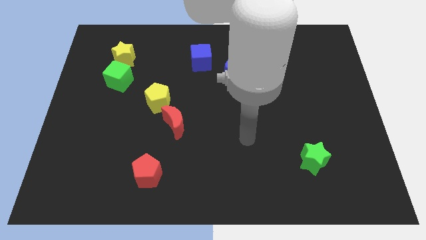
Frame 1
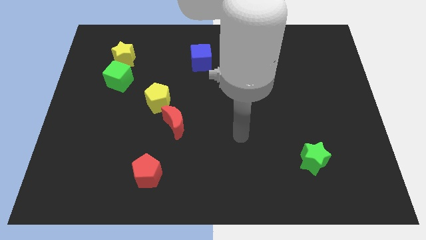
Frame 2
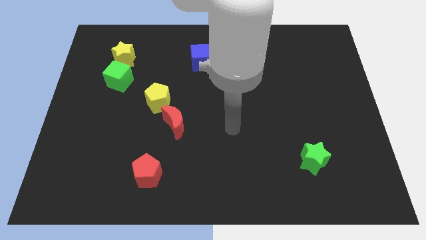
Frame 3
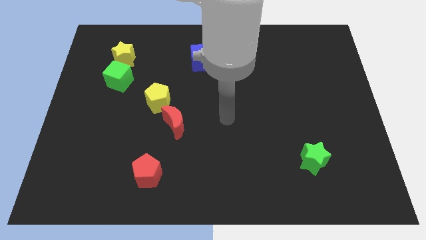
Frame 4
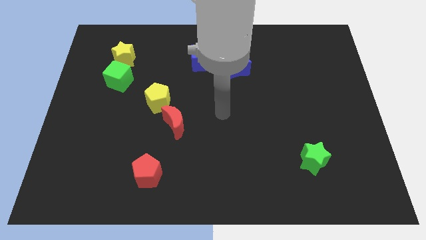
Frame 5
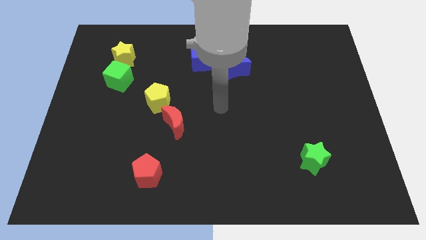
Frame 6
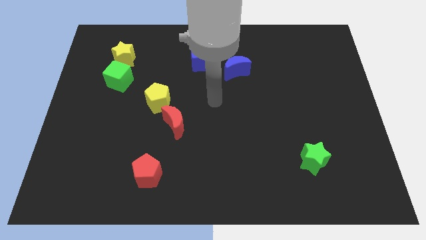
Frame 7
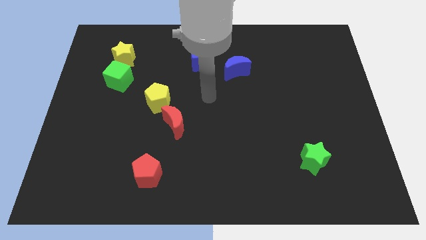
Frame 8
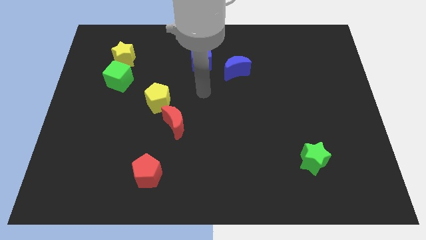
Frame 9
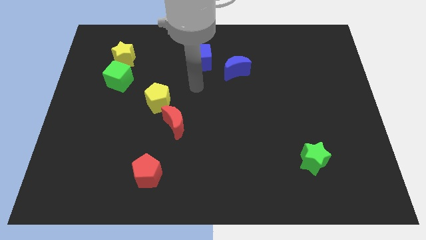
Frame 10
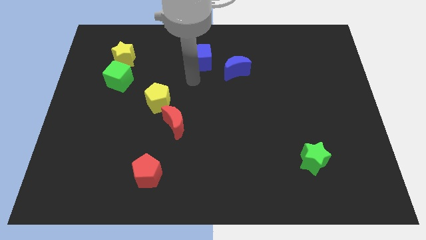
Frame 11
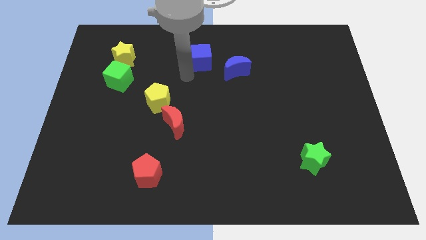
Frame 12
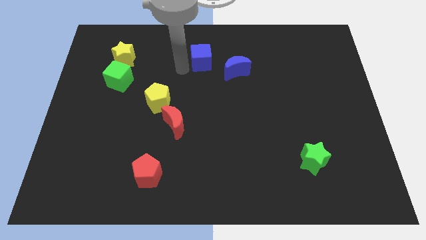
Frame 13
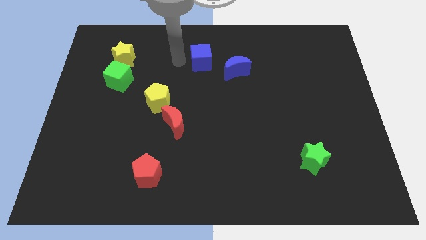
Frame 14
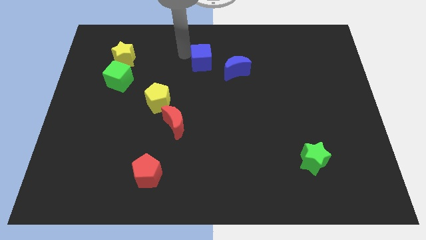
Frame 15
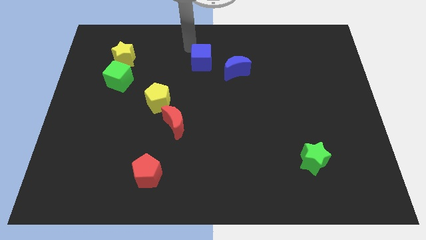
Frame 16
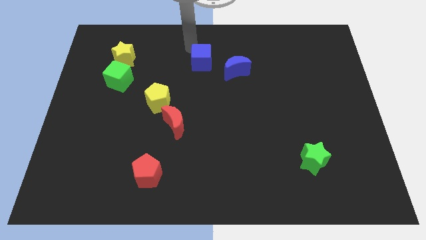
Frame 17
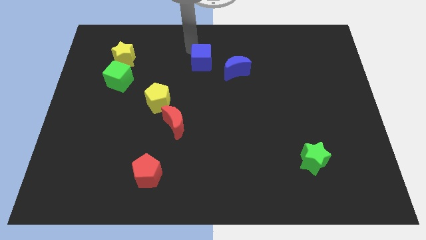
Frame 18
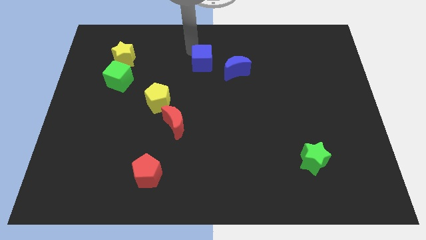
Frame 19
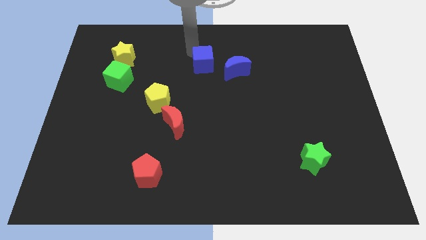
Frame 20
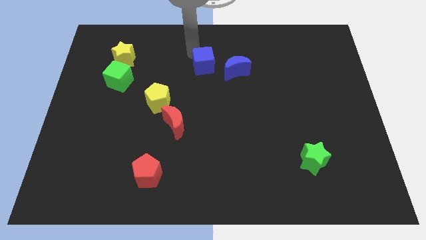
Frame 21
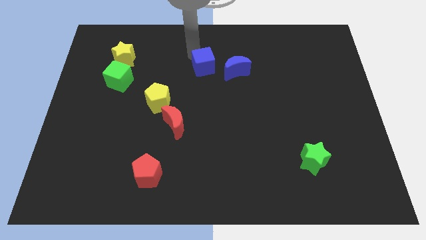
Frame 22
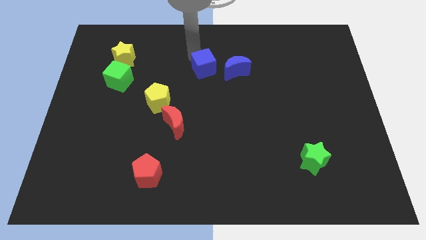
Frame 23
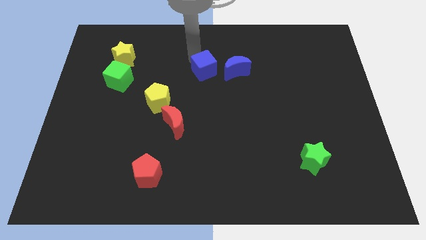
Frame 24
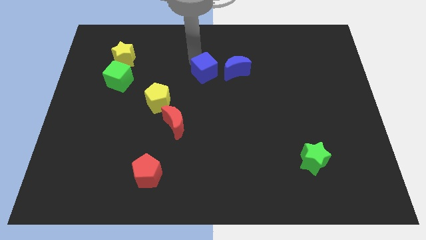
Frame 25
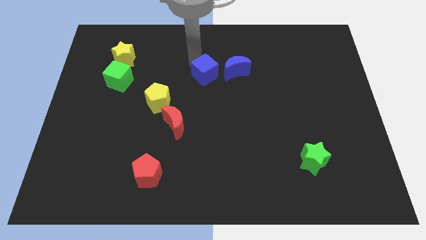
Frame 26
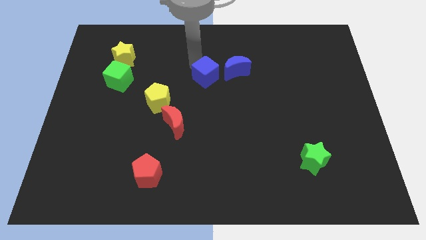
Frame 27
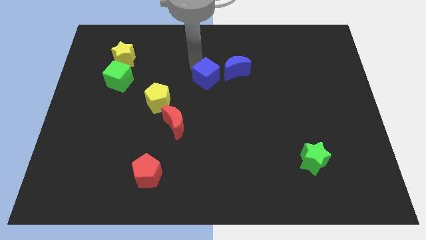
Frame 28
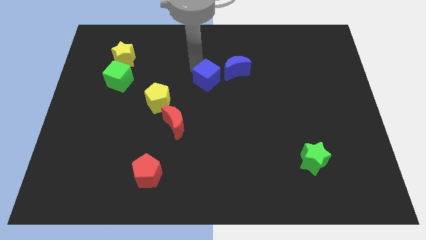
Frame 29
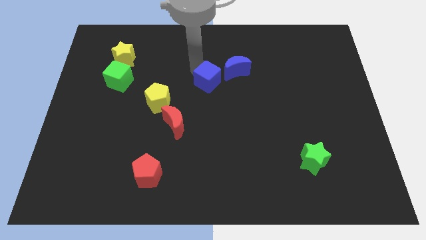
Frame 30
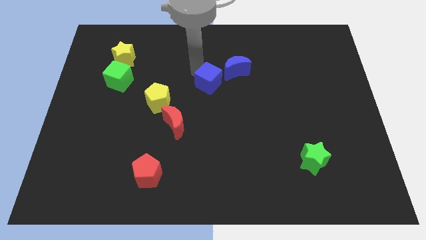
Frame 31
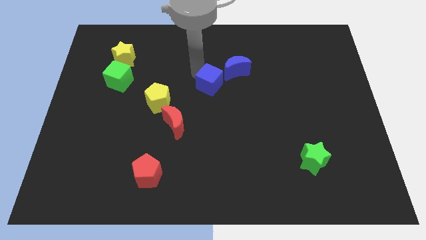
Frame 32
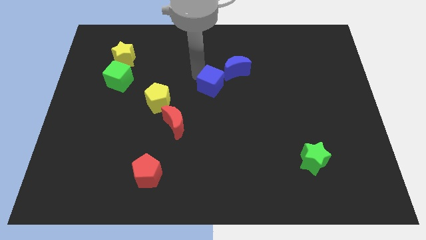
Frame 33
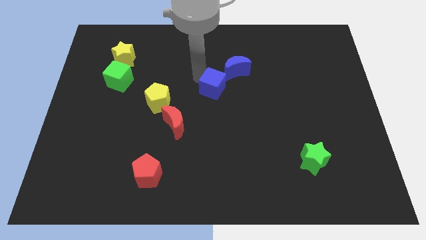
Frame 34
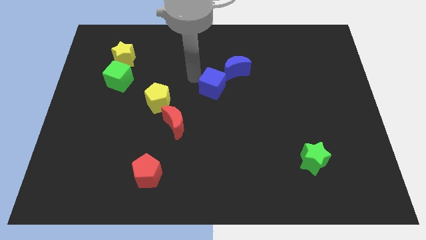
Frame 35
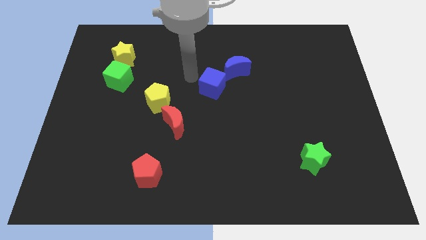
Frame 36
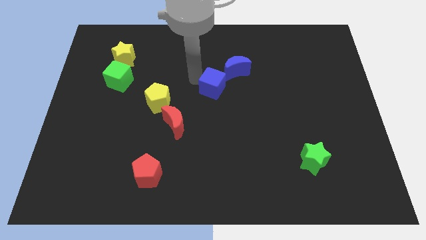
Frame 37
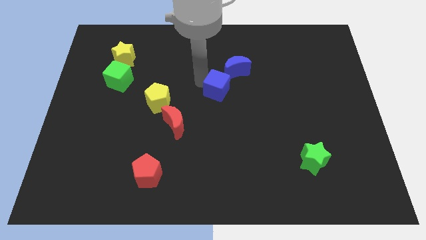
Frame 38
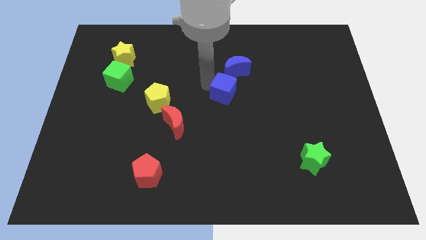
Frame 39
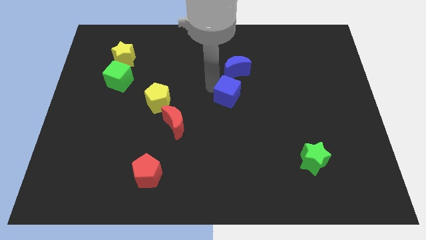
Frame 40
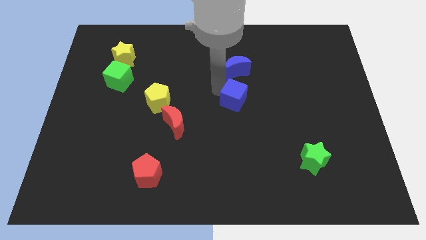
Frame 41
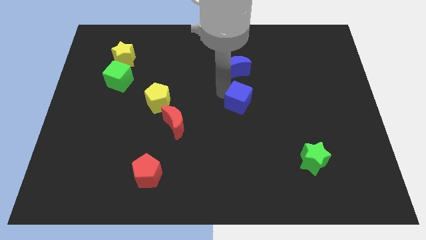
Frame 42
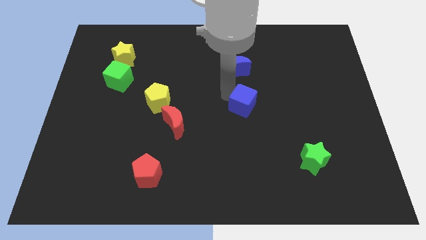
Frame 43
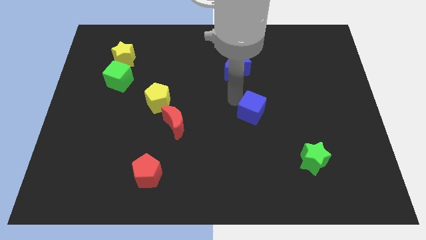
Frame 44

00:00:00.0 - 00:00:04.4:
slide the blue cube down and then to the right

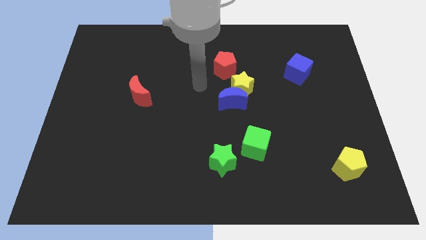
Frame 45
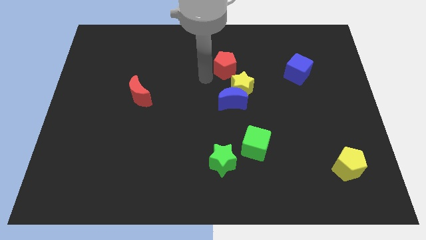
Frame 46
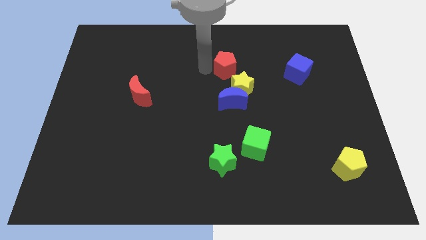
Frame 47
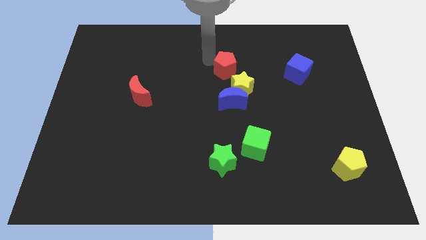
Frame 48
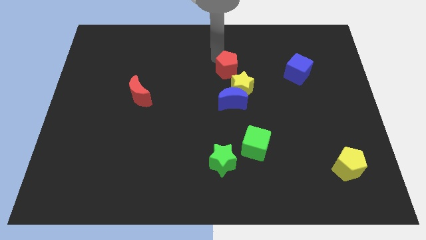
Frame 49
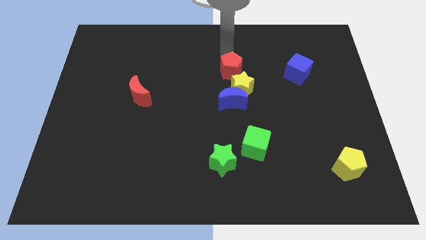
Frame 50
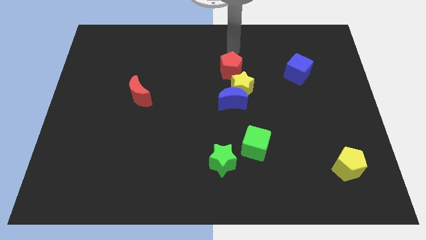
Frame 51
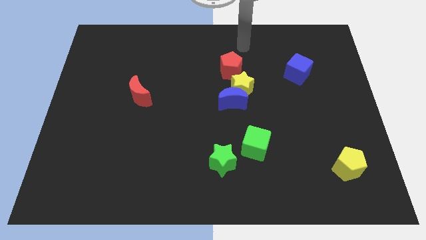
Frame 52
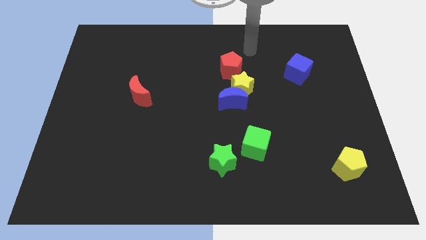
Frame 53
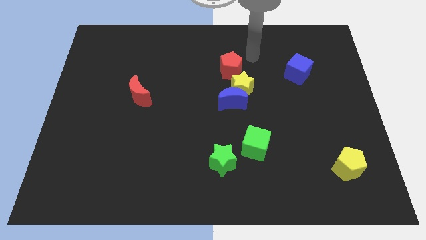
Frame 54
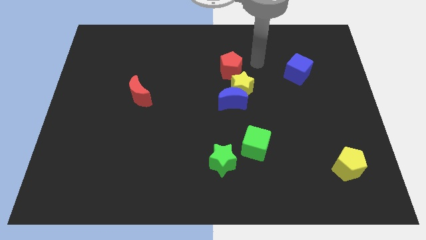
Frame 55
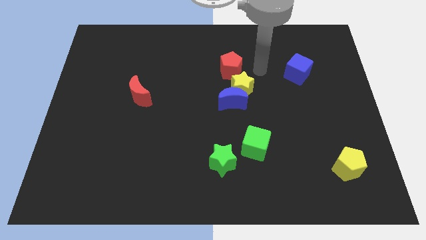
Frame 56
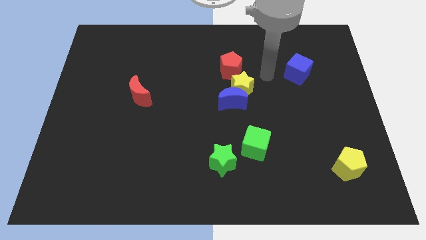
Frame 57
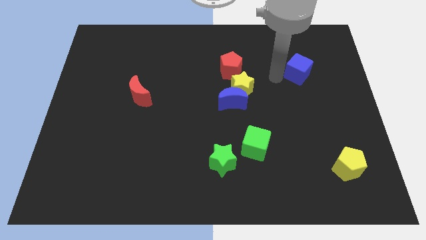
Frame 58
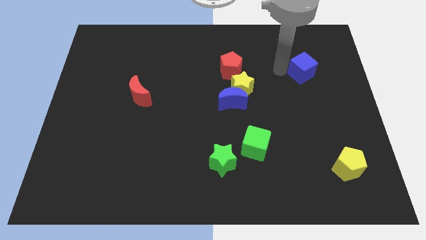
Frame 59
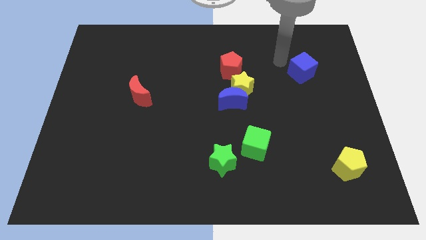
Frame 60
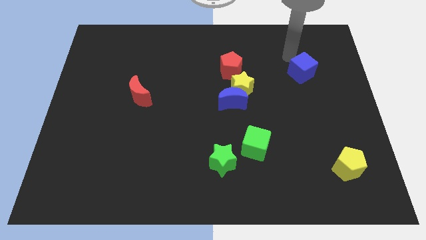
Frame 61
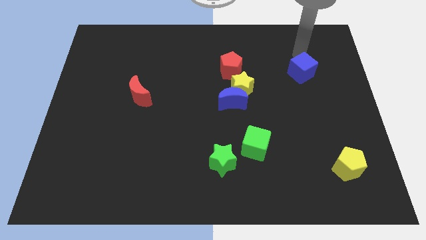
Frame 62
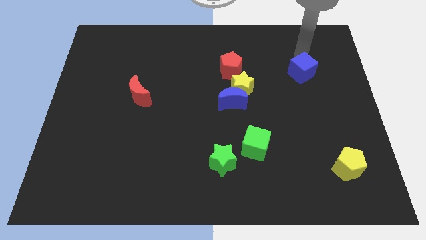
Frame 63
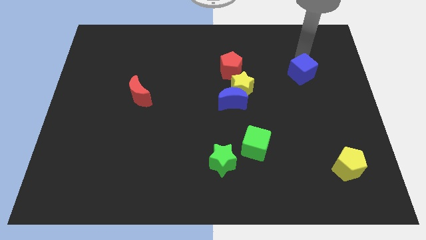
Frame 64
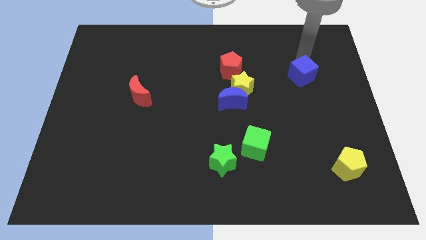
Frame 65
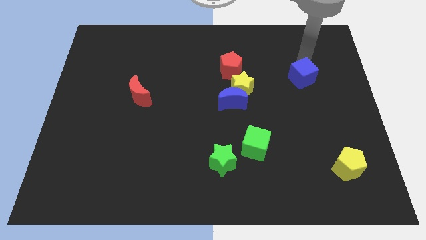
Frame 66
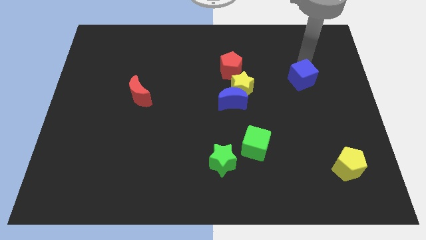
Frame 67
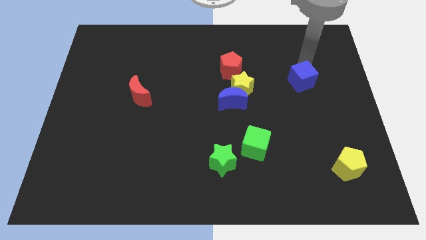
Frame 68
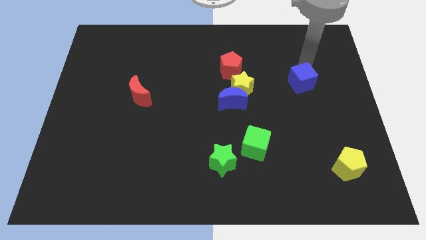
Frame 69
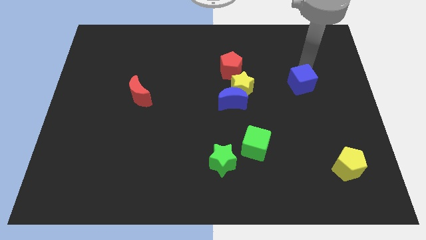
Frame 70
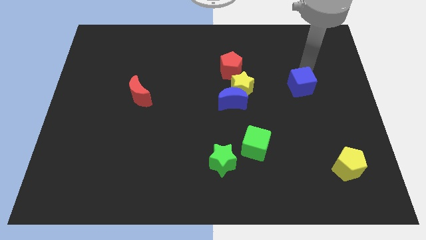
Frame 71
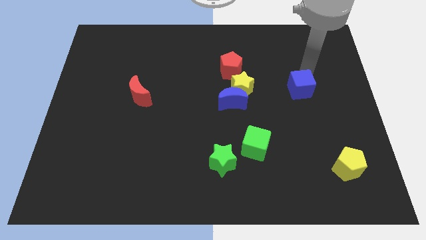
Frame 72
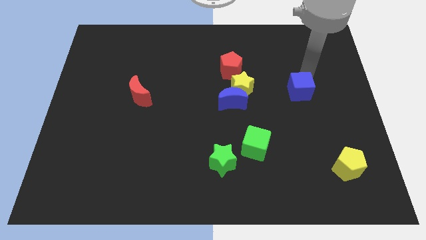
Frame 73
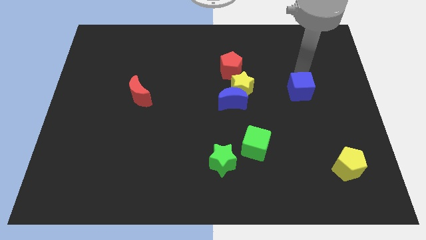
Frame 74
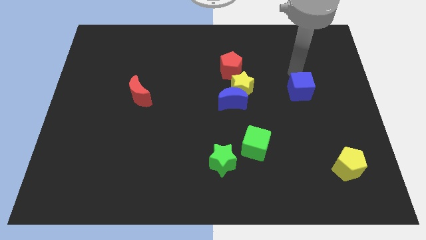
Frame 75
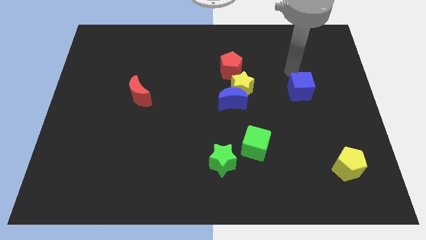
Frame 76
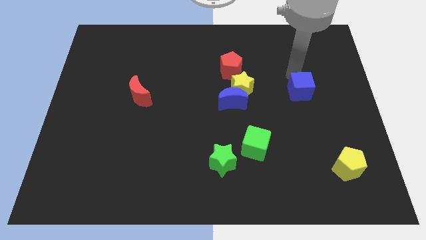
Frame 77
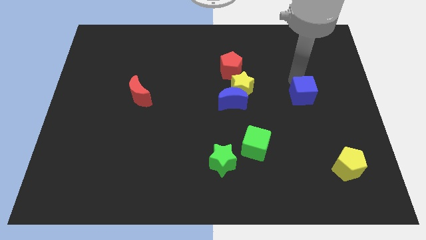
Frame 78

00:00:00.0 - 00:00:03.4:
push the blue cube downwards a bit
